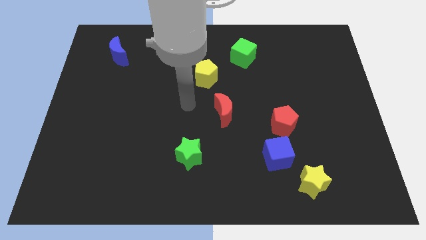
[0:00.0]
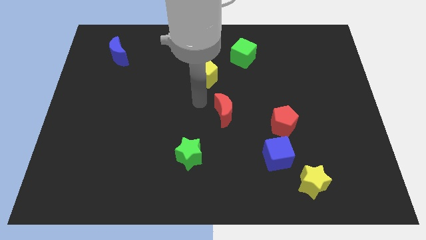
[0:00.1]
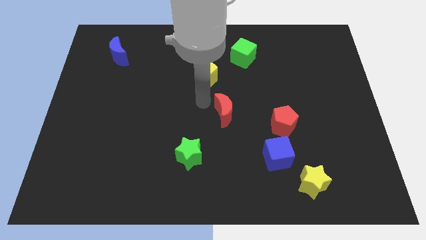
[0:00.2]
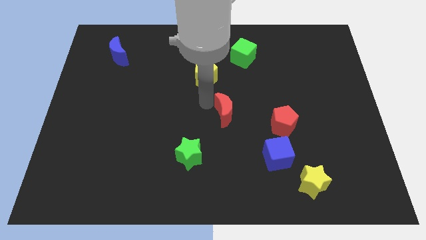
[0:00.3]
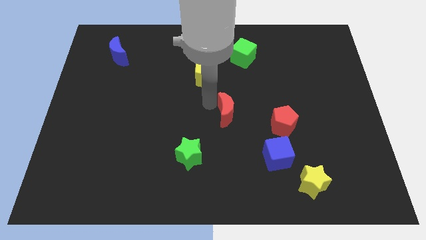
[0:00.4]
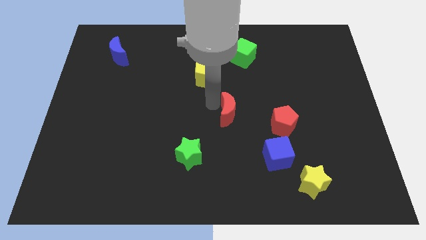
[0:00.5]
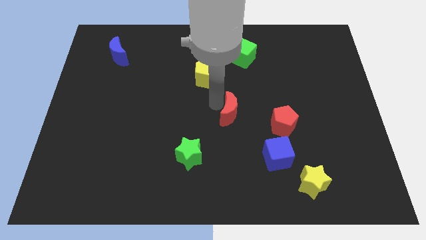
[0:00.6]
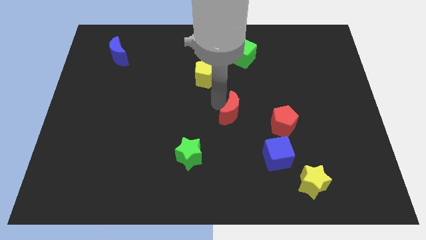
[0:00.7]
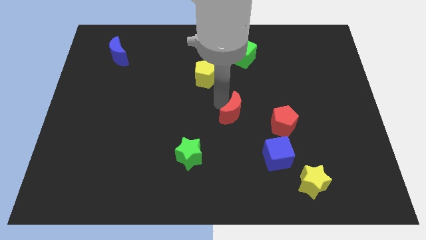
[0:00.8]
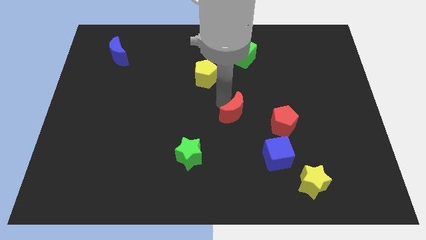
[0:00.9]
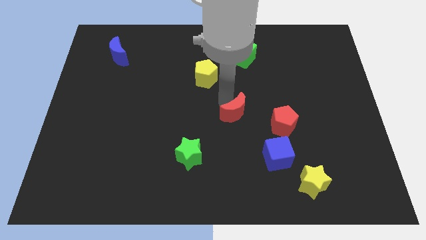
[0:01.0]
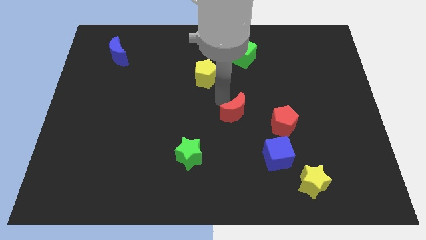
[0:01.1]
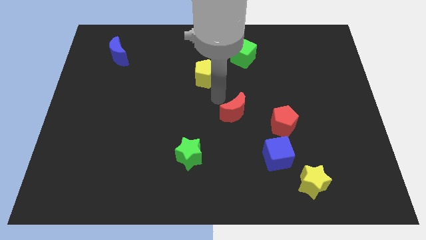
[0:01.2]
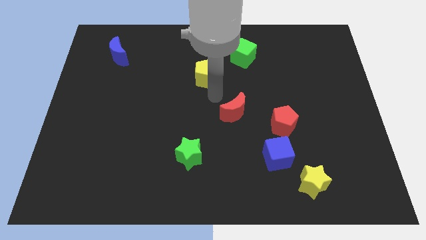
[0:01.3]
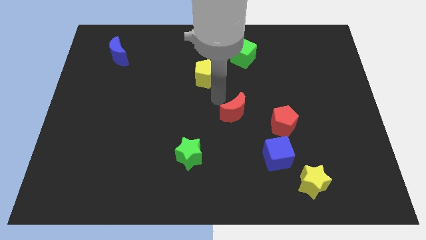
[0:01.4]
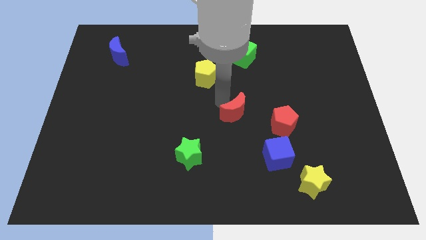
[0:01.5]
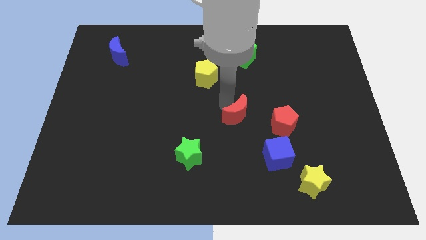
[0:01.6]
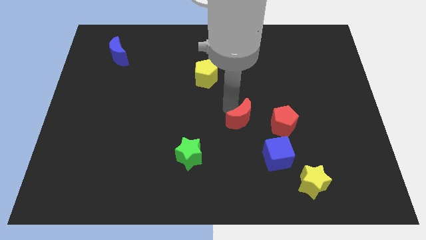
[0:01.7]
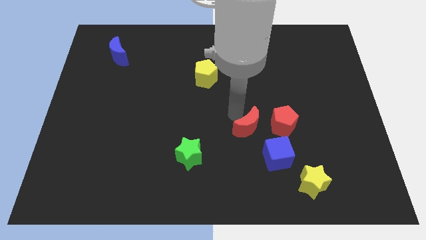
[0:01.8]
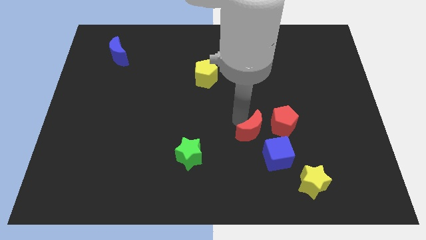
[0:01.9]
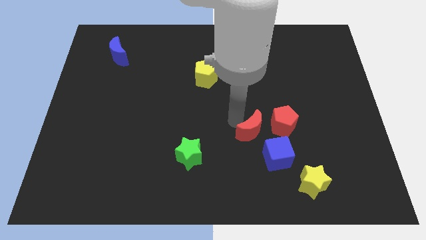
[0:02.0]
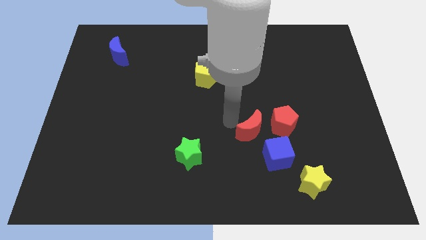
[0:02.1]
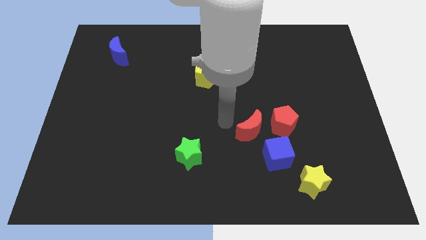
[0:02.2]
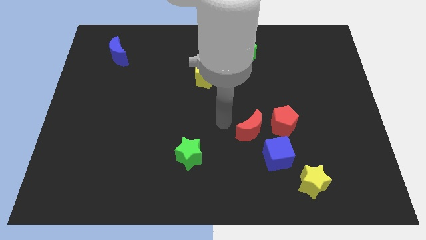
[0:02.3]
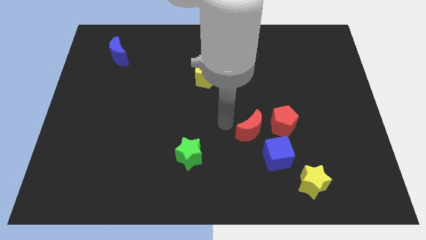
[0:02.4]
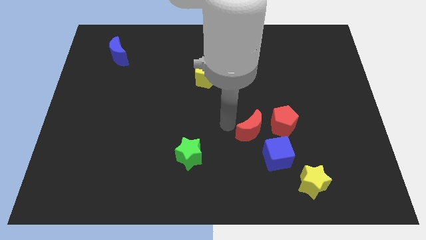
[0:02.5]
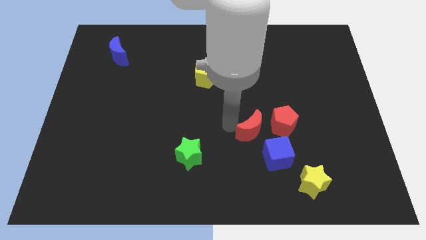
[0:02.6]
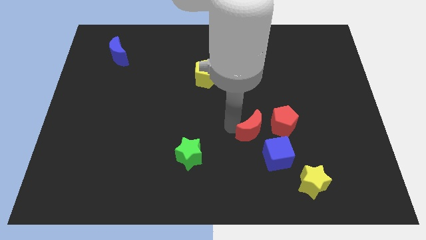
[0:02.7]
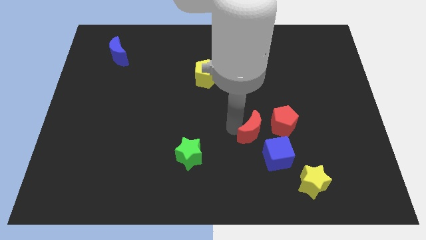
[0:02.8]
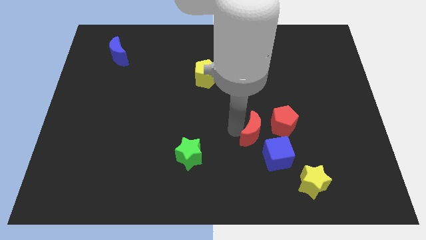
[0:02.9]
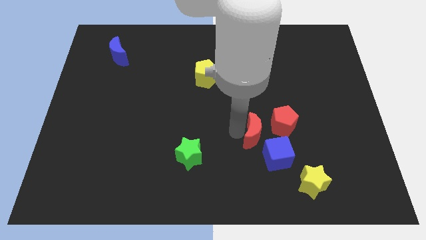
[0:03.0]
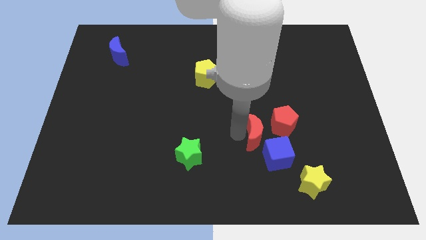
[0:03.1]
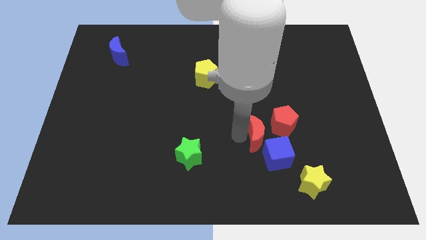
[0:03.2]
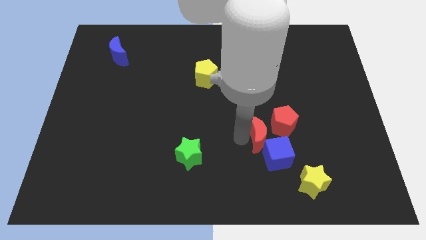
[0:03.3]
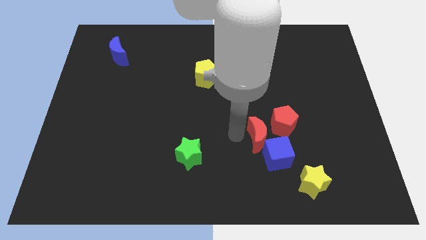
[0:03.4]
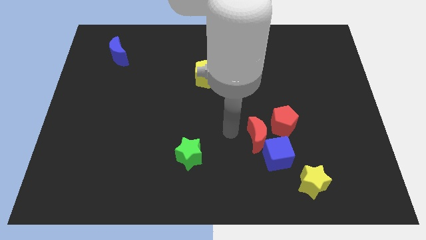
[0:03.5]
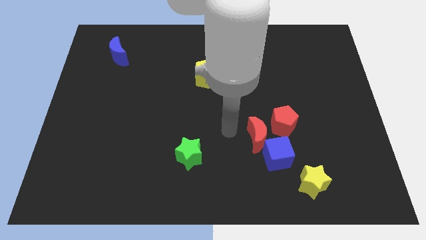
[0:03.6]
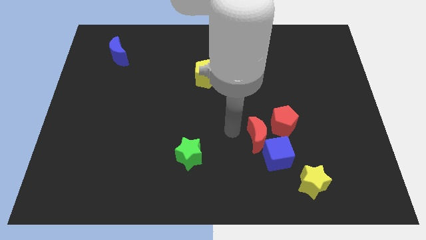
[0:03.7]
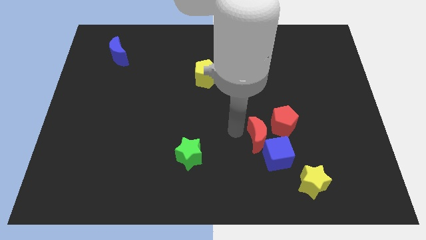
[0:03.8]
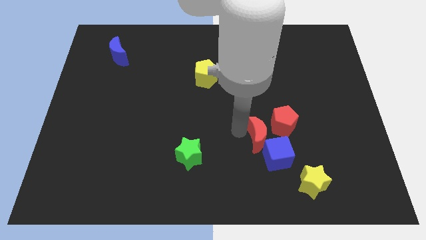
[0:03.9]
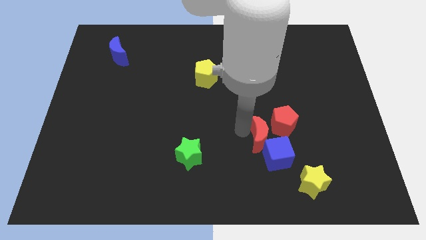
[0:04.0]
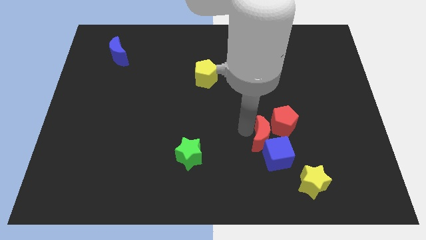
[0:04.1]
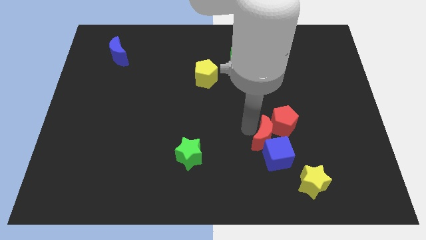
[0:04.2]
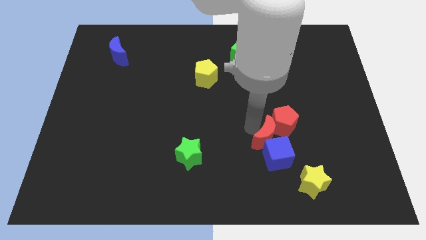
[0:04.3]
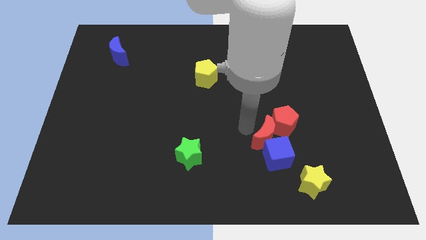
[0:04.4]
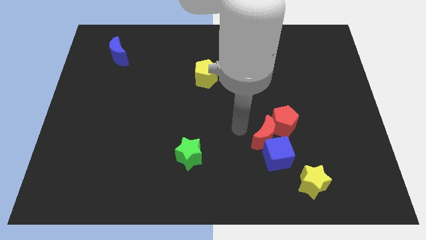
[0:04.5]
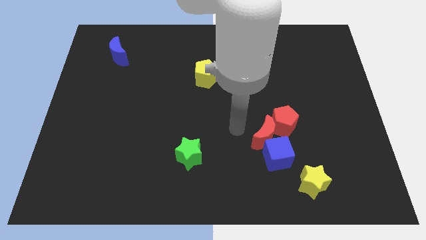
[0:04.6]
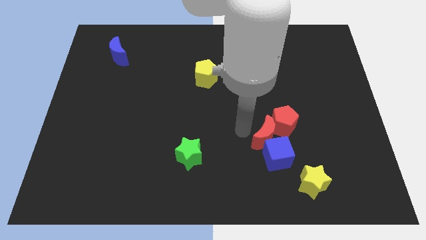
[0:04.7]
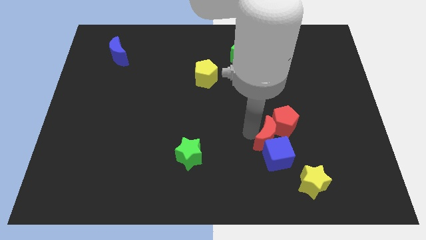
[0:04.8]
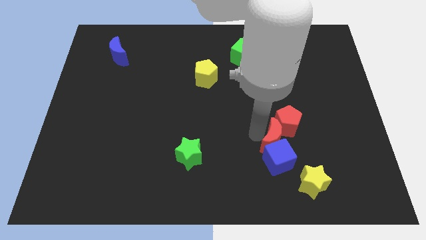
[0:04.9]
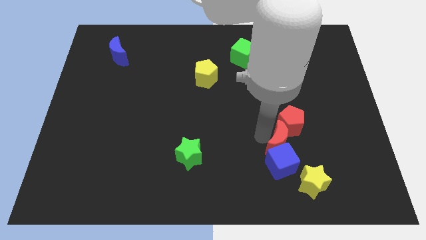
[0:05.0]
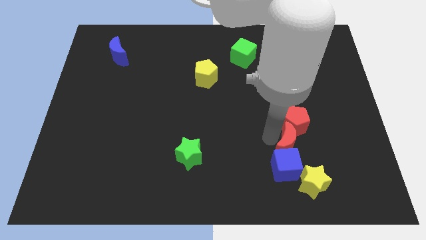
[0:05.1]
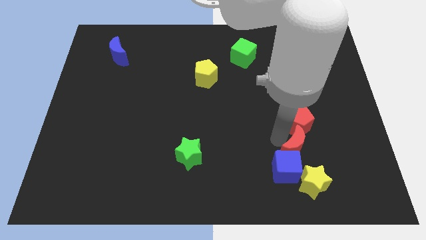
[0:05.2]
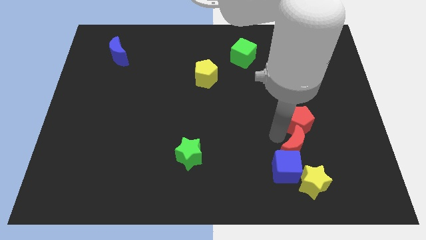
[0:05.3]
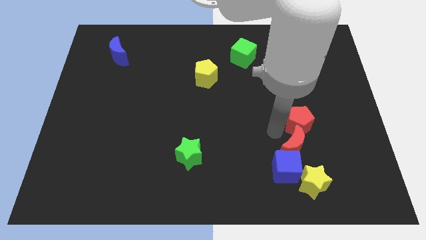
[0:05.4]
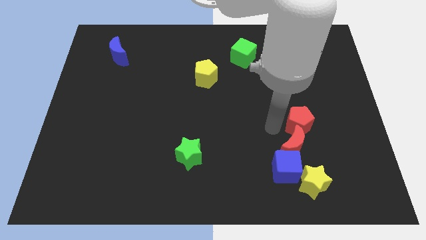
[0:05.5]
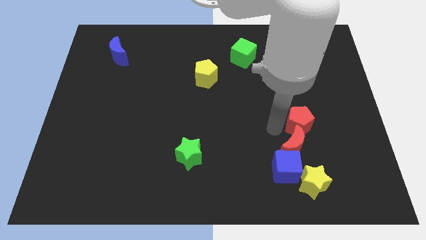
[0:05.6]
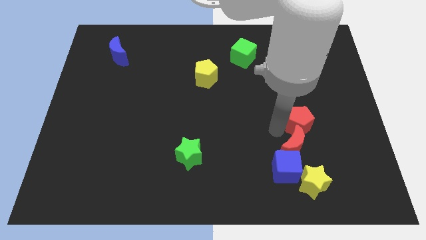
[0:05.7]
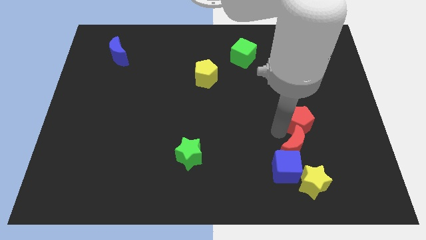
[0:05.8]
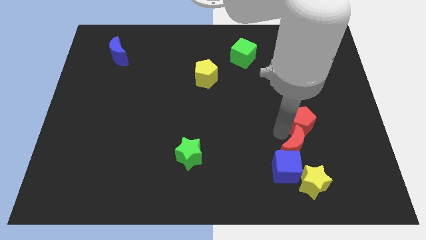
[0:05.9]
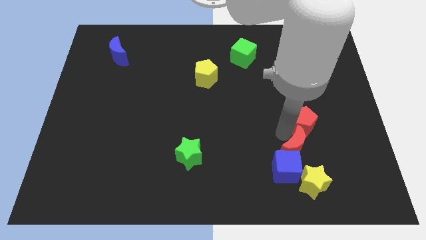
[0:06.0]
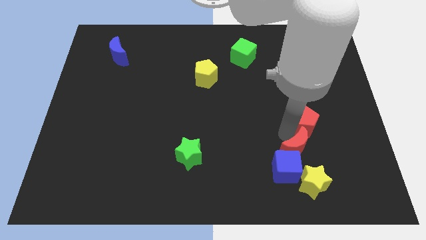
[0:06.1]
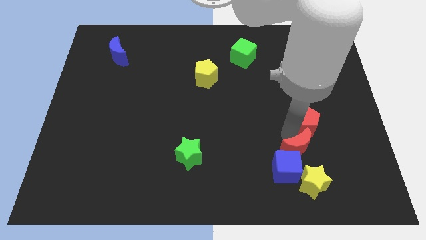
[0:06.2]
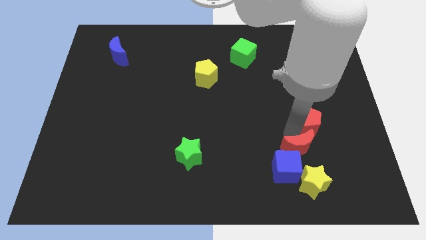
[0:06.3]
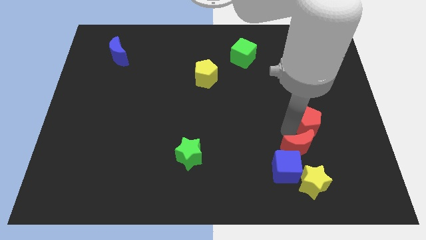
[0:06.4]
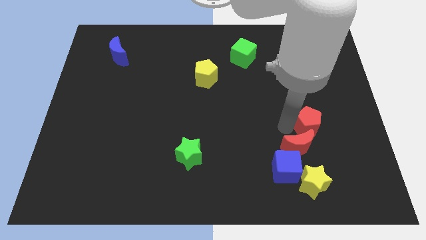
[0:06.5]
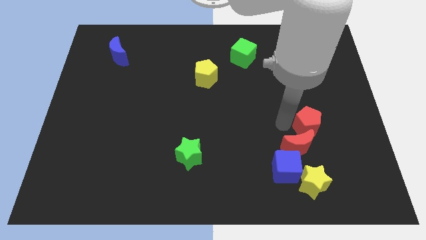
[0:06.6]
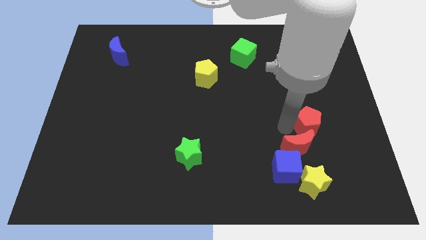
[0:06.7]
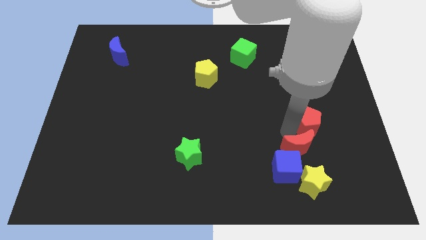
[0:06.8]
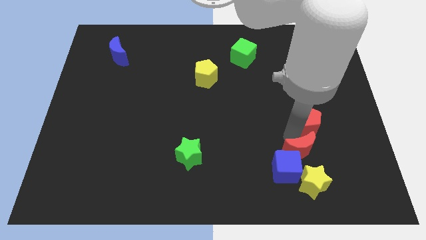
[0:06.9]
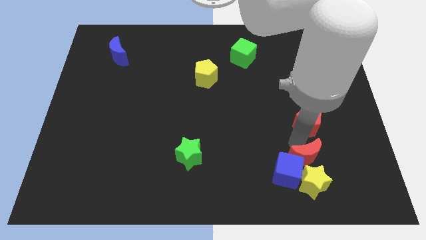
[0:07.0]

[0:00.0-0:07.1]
put the red moon close to the yellow star
